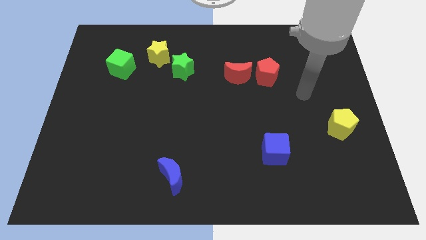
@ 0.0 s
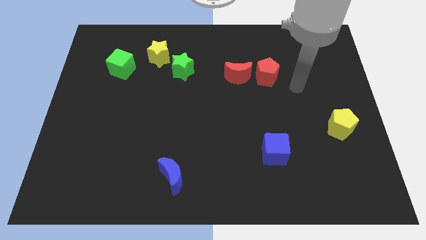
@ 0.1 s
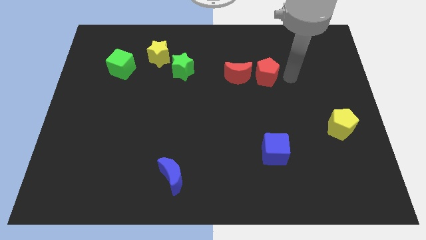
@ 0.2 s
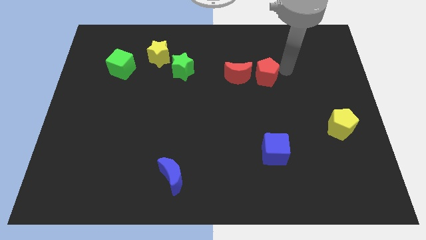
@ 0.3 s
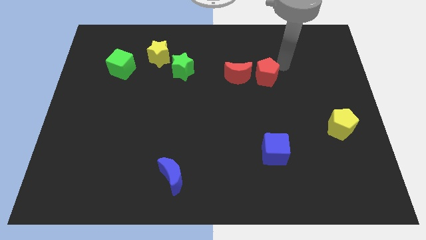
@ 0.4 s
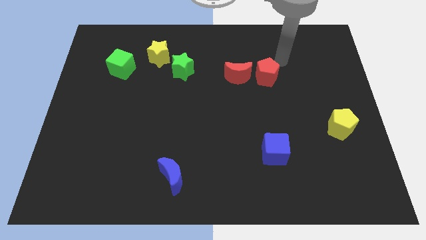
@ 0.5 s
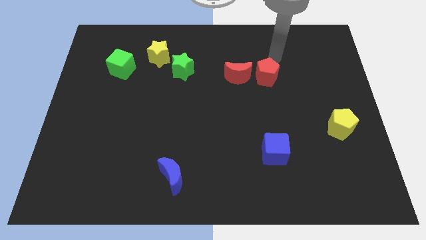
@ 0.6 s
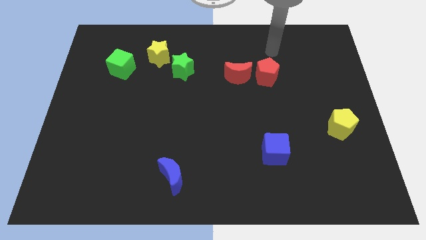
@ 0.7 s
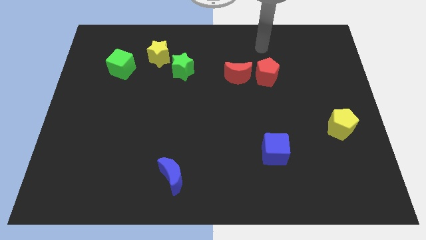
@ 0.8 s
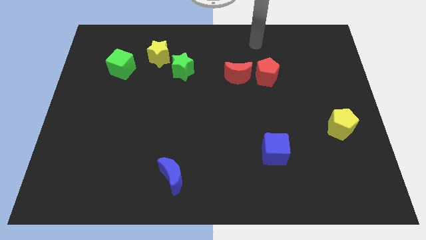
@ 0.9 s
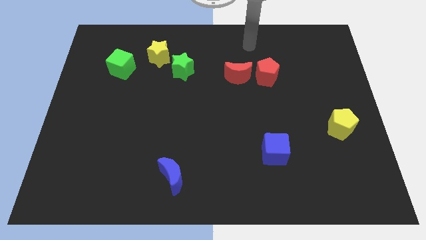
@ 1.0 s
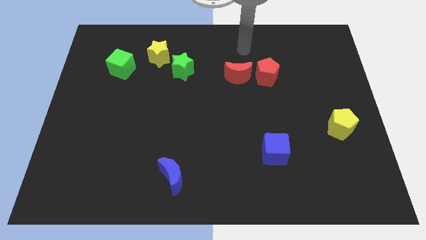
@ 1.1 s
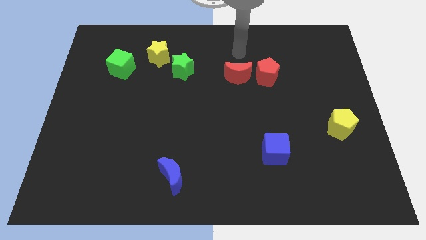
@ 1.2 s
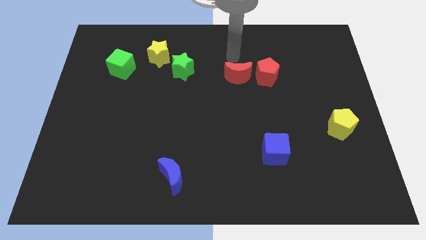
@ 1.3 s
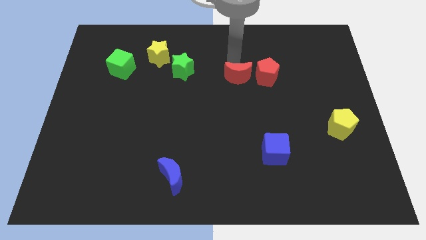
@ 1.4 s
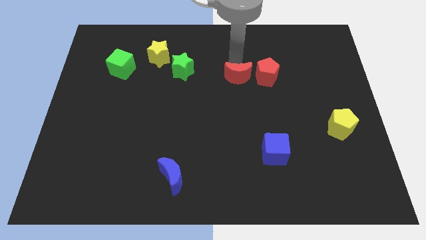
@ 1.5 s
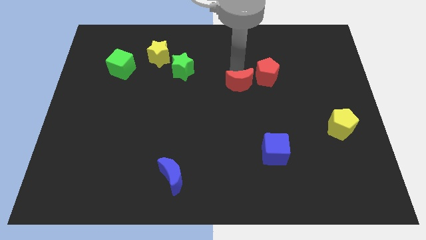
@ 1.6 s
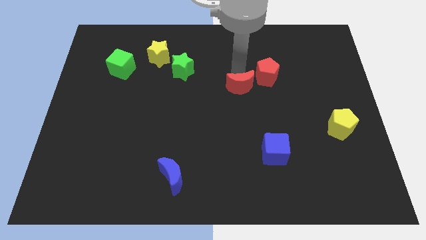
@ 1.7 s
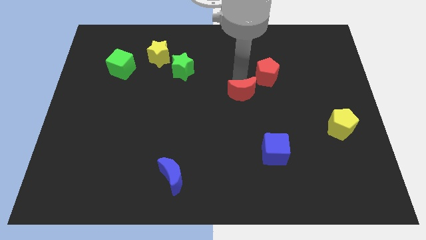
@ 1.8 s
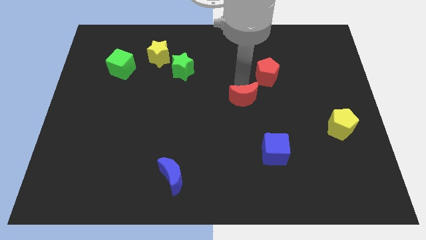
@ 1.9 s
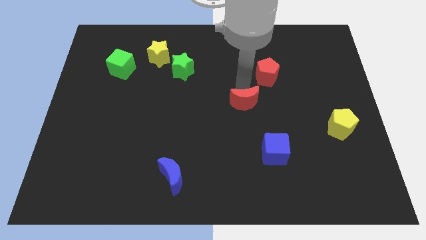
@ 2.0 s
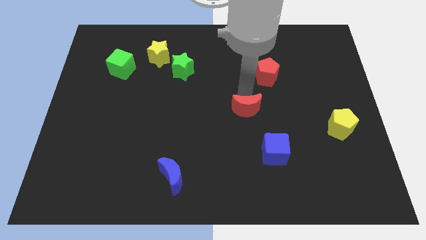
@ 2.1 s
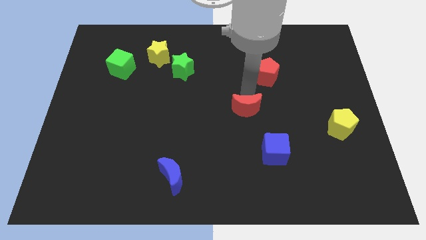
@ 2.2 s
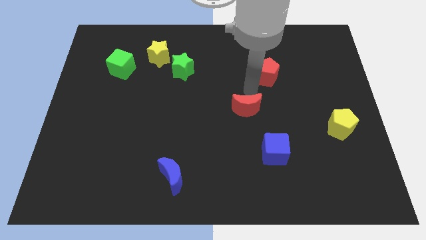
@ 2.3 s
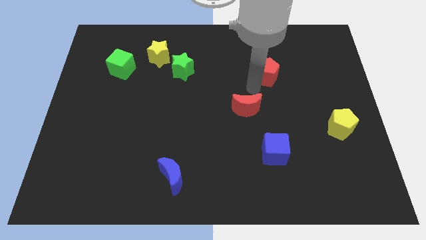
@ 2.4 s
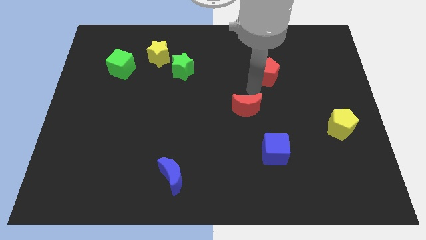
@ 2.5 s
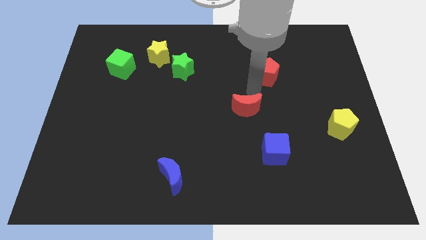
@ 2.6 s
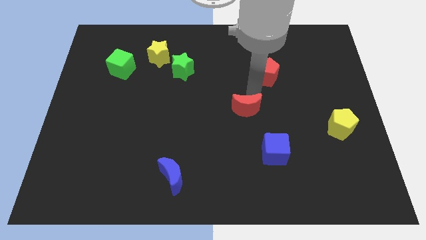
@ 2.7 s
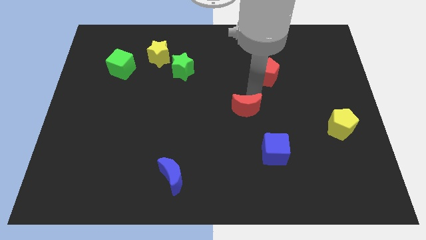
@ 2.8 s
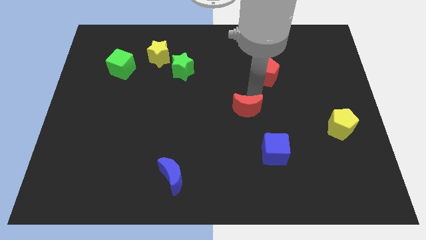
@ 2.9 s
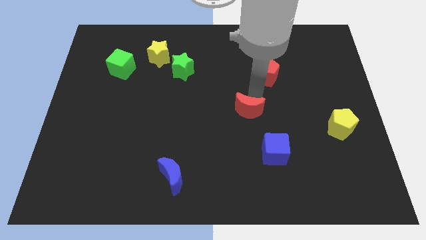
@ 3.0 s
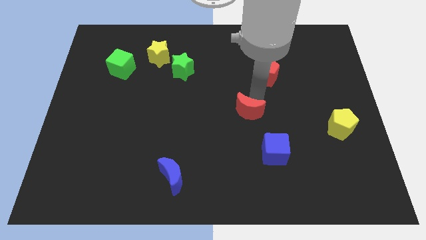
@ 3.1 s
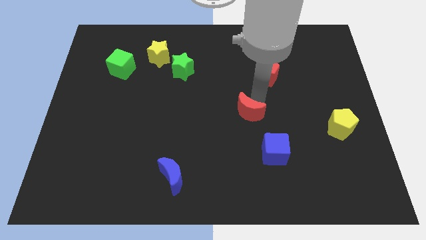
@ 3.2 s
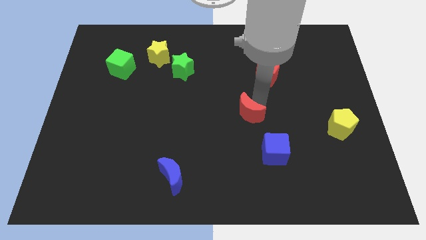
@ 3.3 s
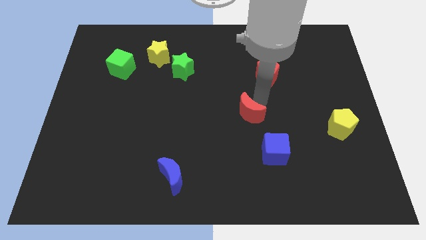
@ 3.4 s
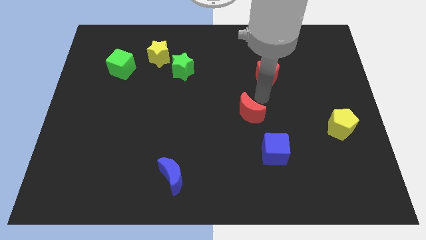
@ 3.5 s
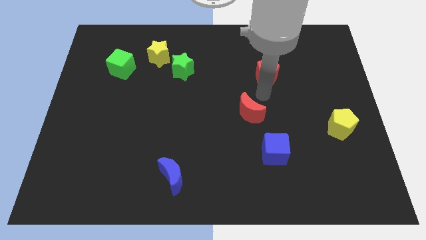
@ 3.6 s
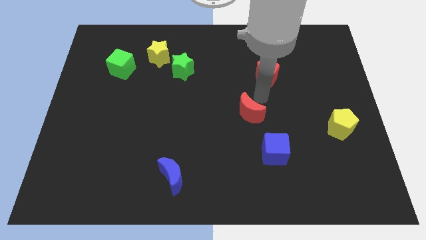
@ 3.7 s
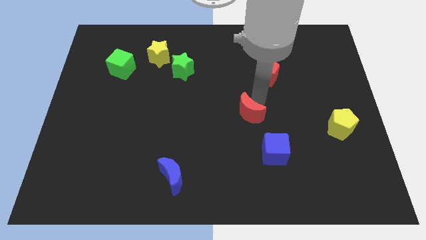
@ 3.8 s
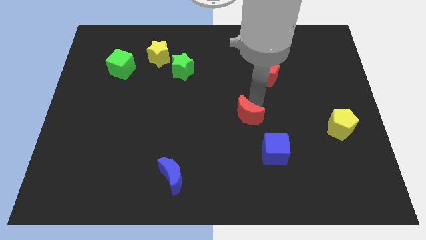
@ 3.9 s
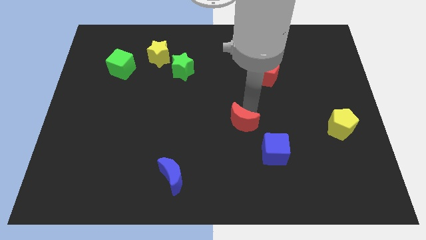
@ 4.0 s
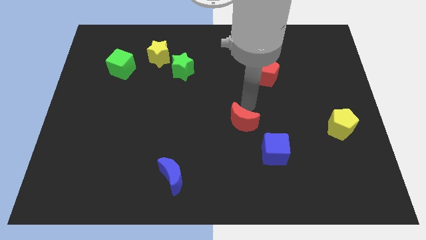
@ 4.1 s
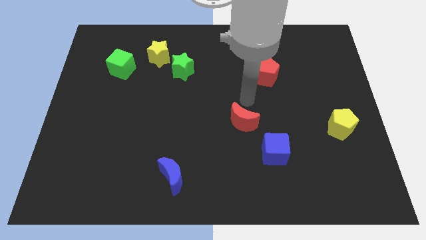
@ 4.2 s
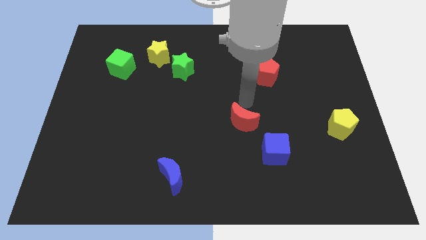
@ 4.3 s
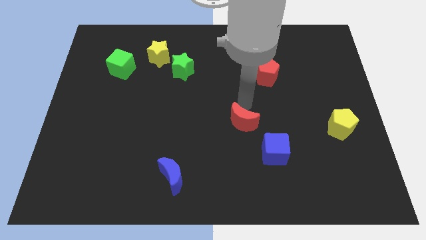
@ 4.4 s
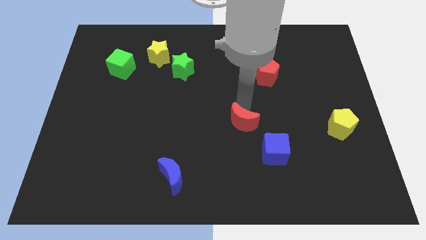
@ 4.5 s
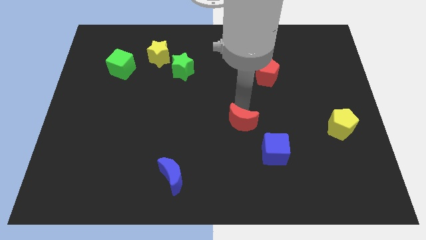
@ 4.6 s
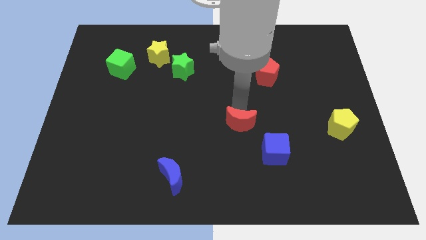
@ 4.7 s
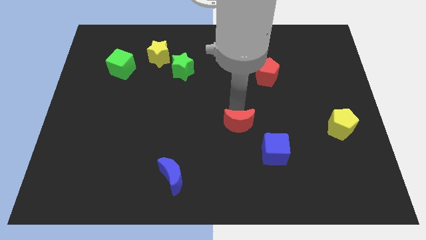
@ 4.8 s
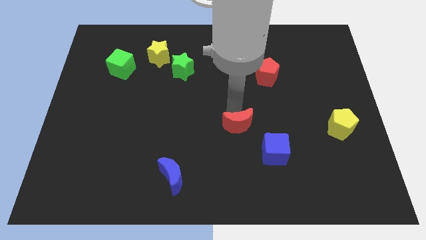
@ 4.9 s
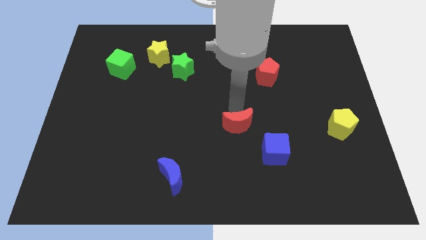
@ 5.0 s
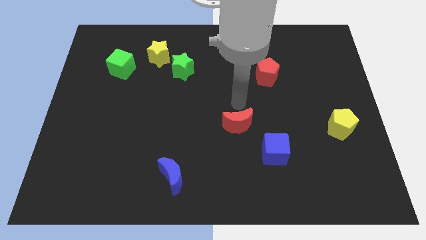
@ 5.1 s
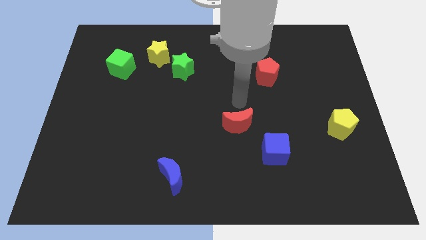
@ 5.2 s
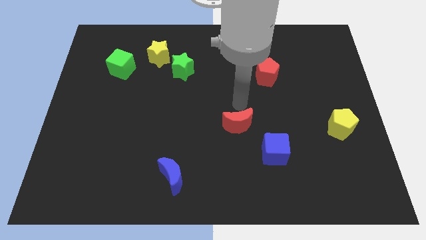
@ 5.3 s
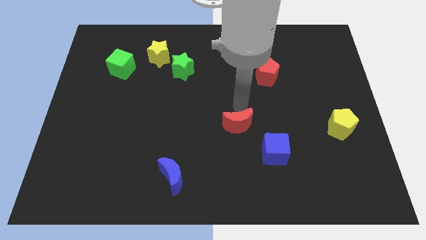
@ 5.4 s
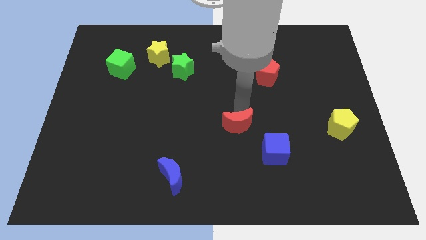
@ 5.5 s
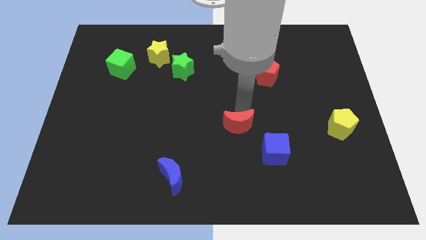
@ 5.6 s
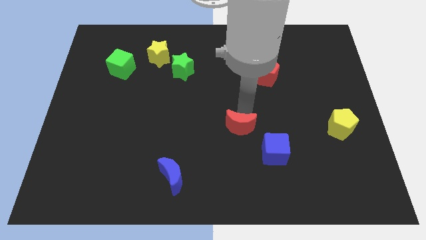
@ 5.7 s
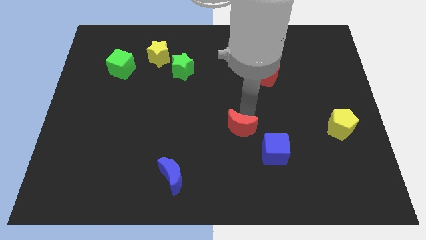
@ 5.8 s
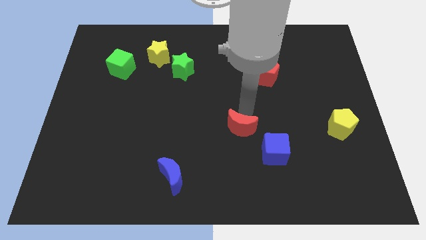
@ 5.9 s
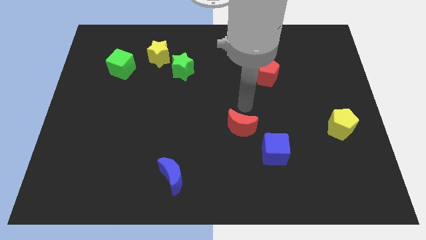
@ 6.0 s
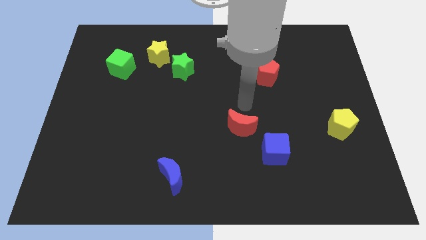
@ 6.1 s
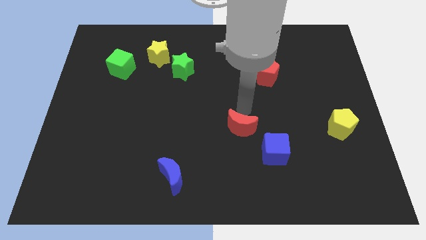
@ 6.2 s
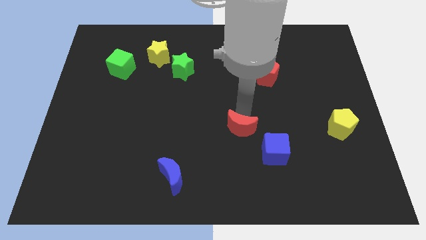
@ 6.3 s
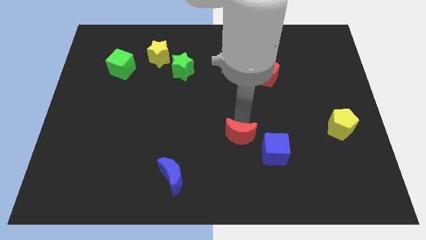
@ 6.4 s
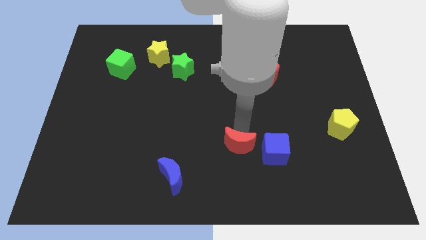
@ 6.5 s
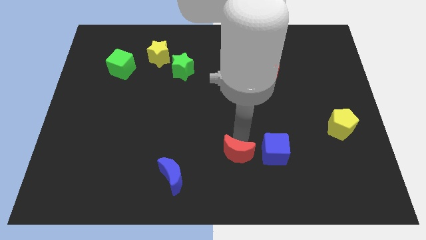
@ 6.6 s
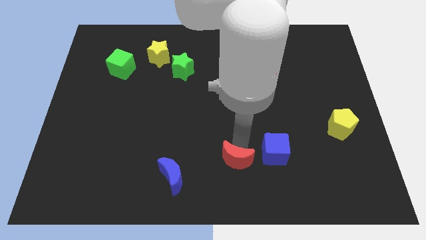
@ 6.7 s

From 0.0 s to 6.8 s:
move the red moon to the right of the blue moon
